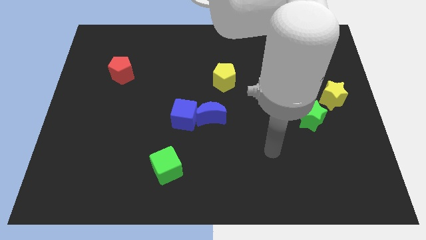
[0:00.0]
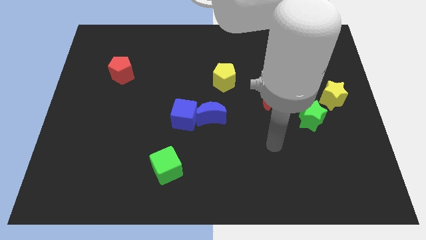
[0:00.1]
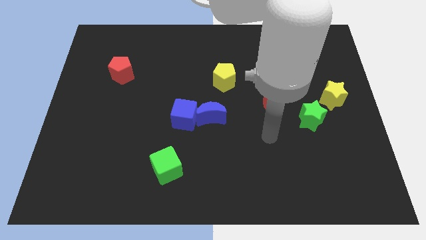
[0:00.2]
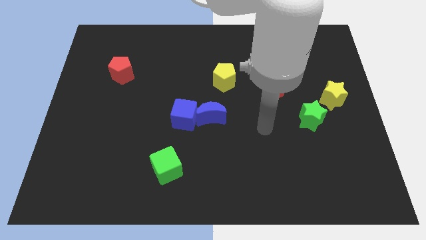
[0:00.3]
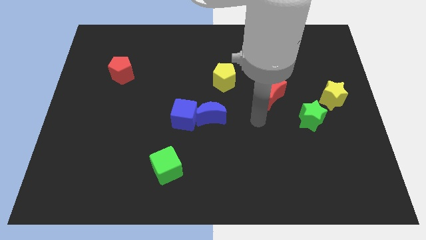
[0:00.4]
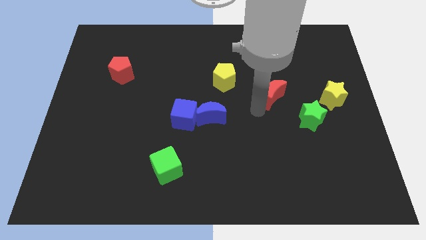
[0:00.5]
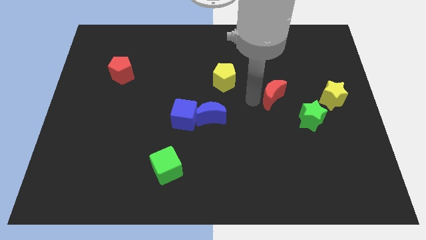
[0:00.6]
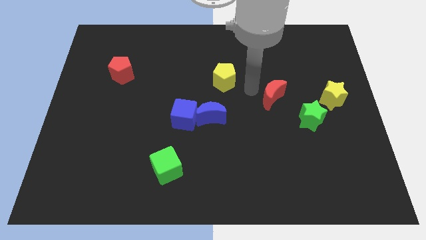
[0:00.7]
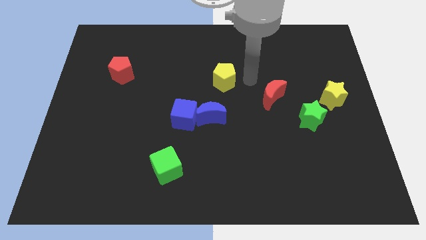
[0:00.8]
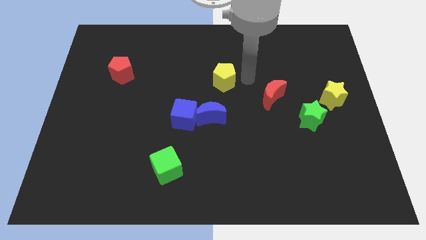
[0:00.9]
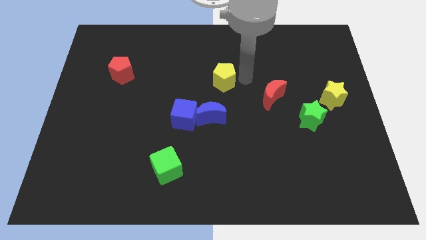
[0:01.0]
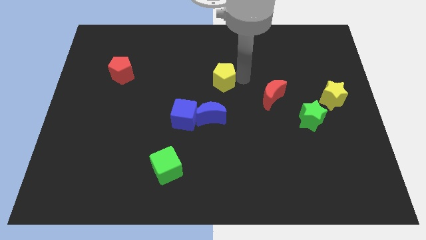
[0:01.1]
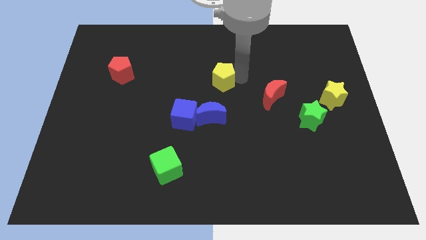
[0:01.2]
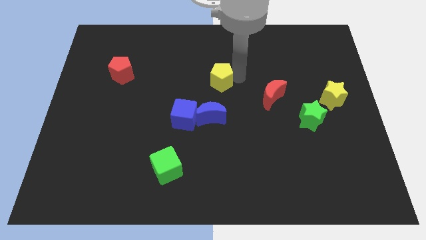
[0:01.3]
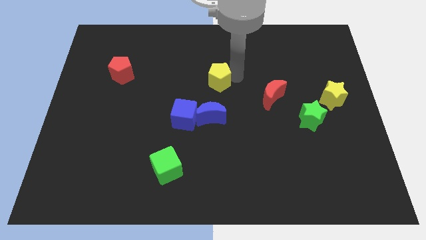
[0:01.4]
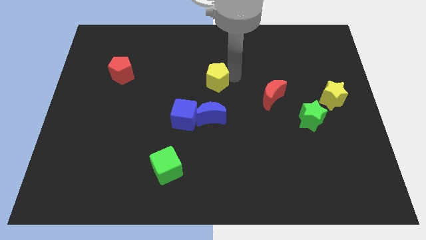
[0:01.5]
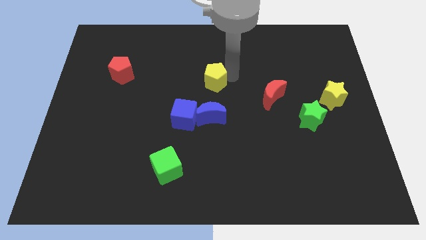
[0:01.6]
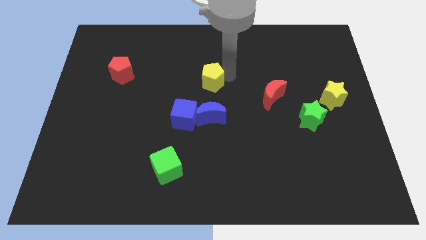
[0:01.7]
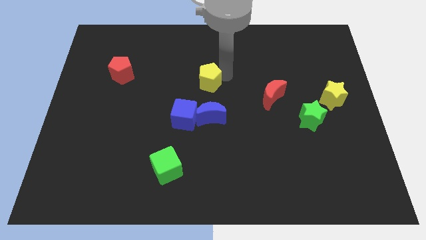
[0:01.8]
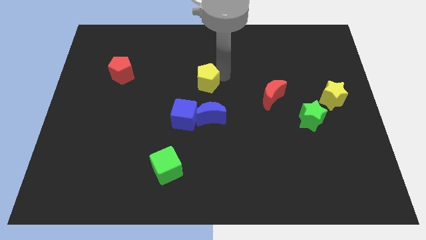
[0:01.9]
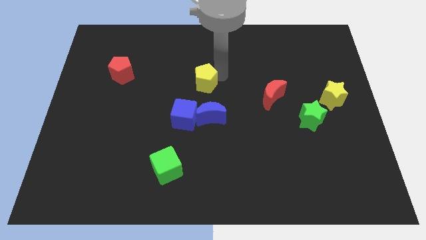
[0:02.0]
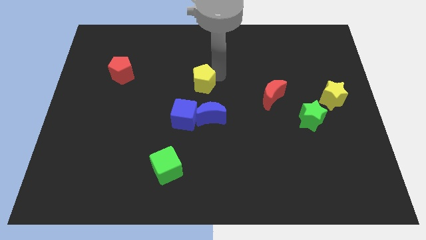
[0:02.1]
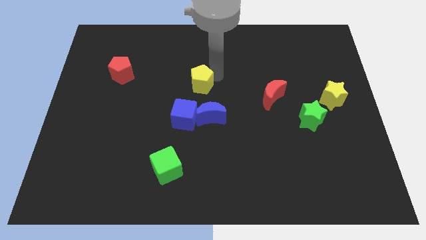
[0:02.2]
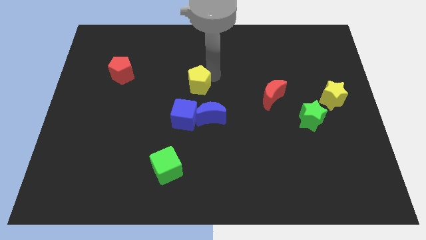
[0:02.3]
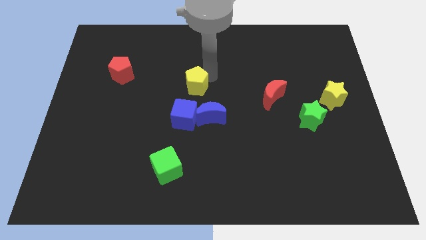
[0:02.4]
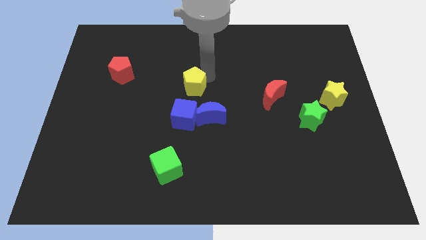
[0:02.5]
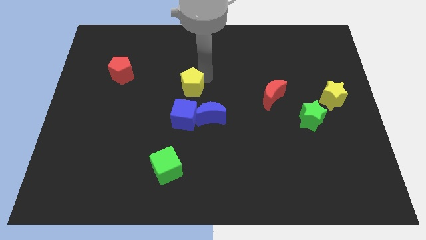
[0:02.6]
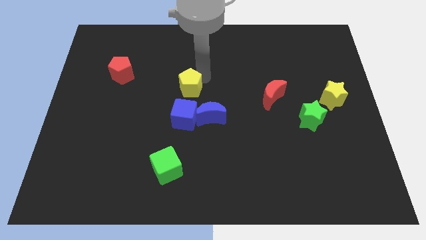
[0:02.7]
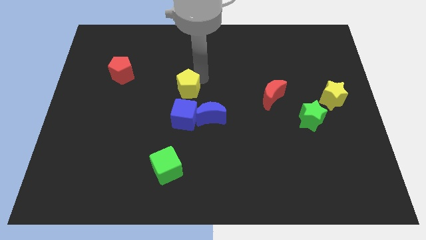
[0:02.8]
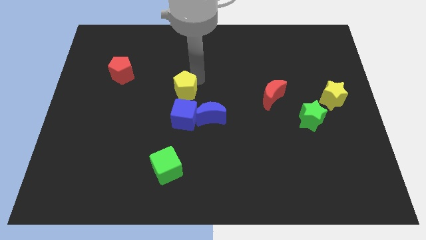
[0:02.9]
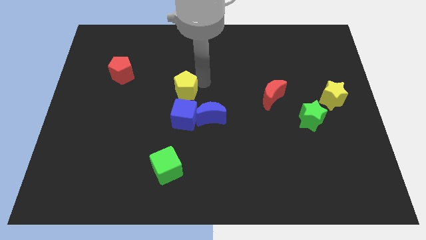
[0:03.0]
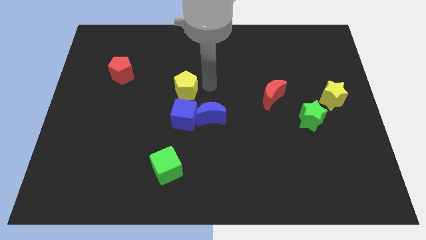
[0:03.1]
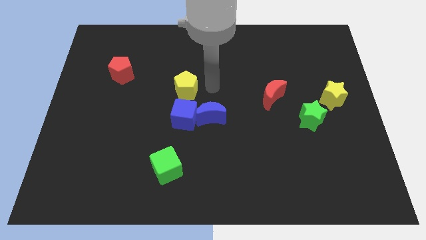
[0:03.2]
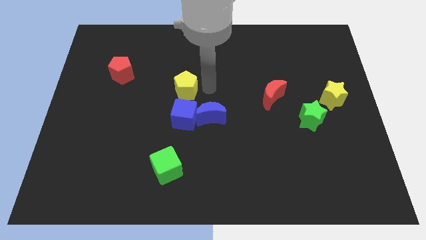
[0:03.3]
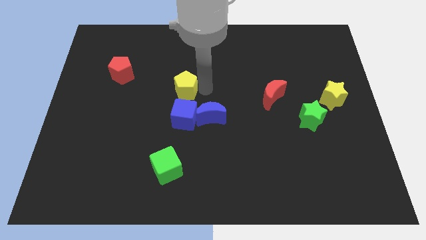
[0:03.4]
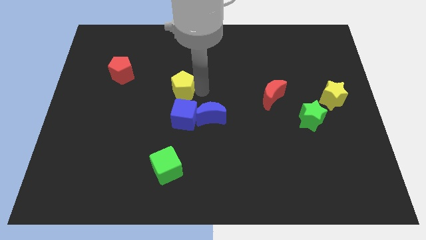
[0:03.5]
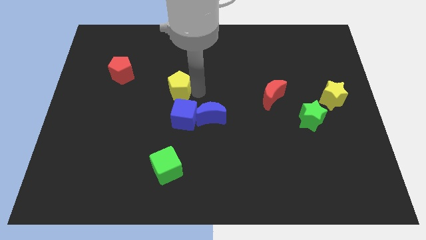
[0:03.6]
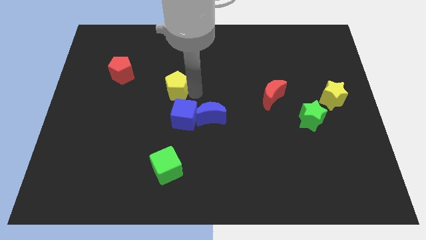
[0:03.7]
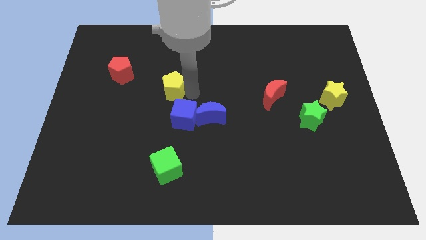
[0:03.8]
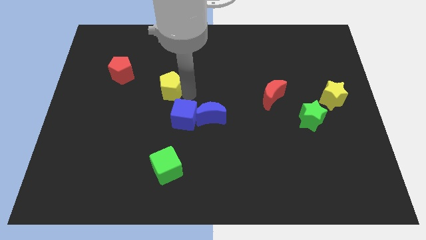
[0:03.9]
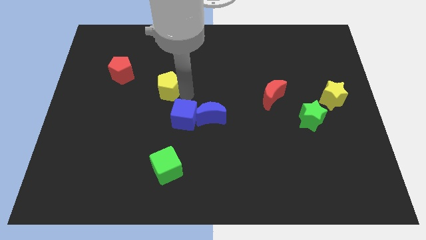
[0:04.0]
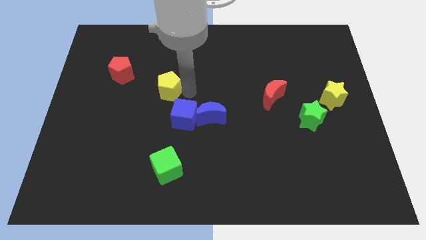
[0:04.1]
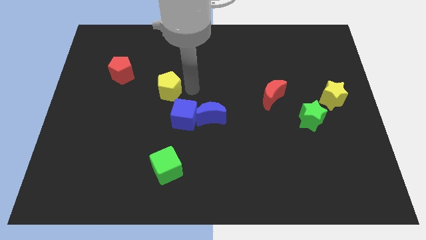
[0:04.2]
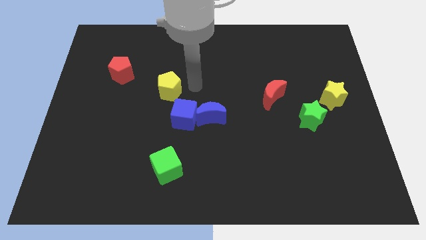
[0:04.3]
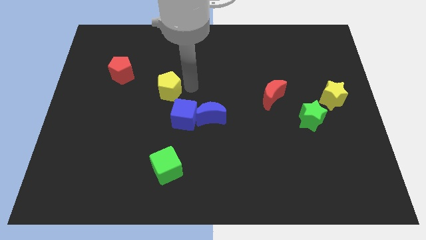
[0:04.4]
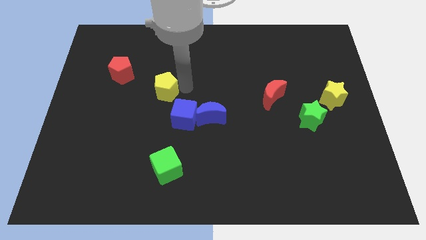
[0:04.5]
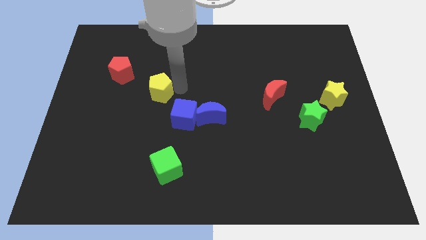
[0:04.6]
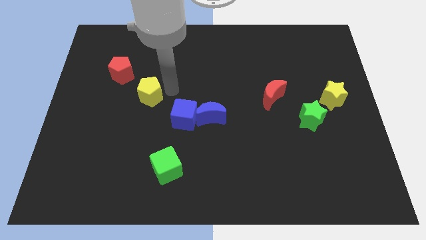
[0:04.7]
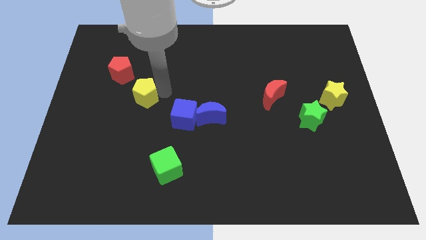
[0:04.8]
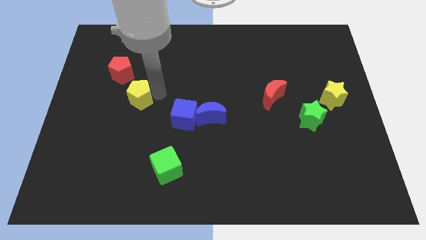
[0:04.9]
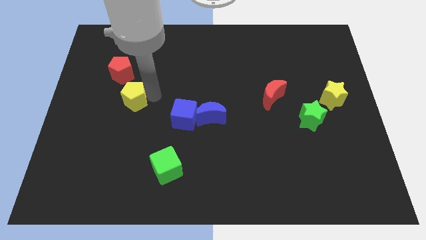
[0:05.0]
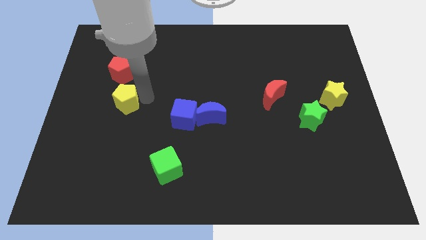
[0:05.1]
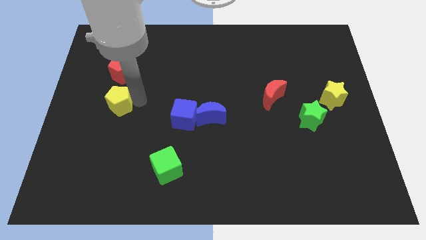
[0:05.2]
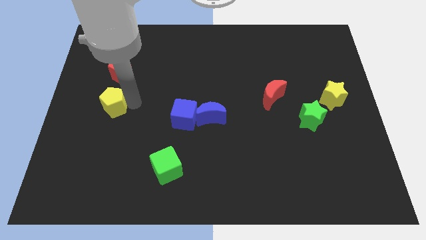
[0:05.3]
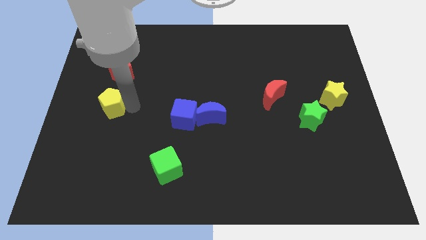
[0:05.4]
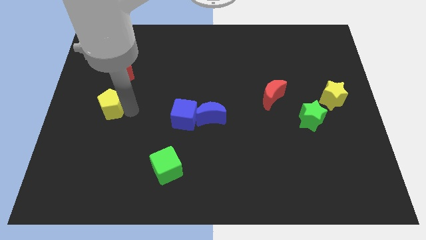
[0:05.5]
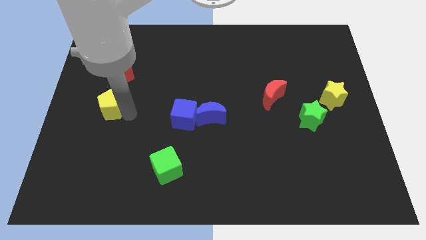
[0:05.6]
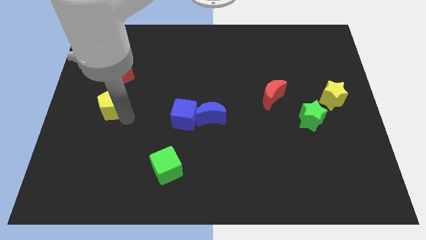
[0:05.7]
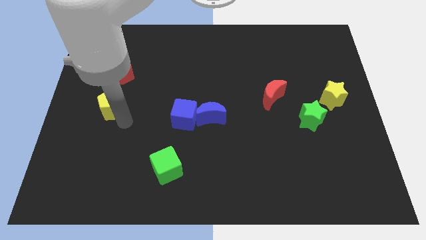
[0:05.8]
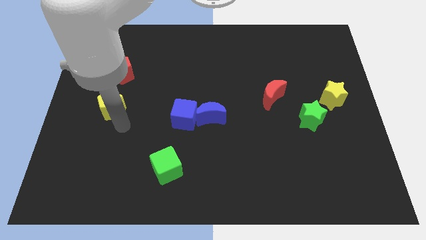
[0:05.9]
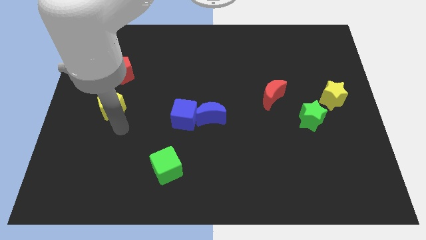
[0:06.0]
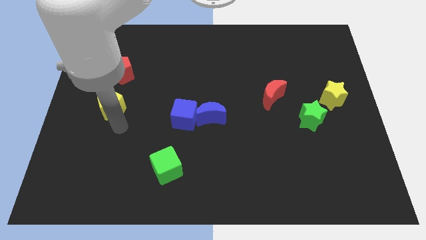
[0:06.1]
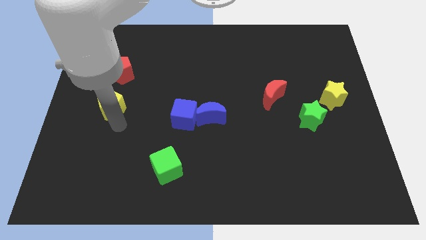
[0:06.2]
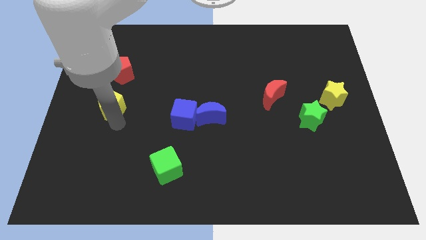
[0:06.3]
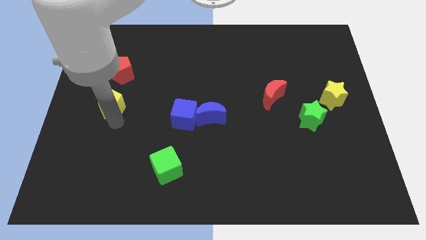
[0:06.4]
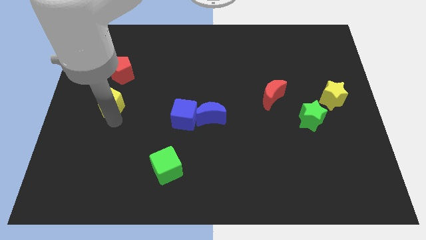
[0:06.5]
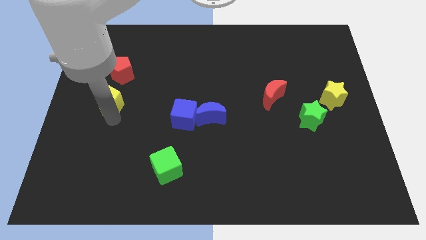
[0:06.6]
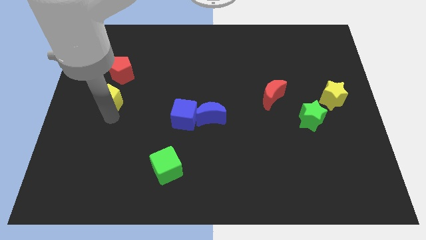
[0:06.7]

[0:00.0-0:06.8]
push the yellow pentagon to the center left
